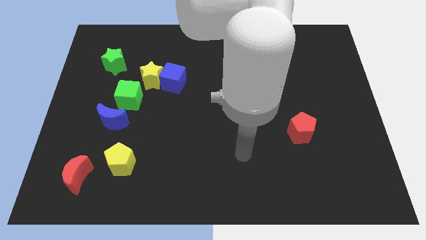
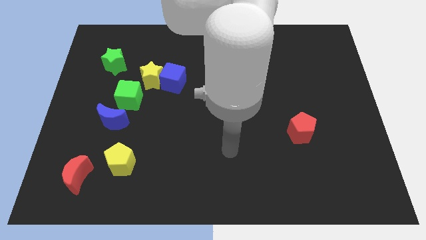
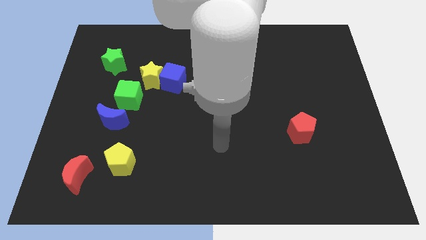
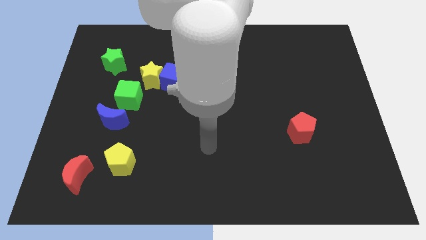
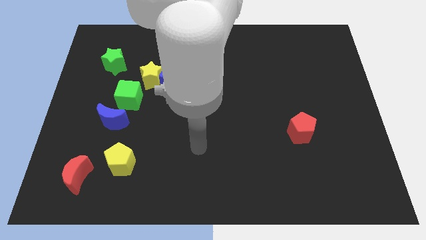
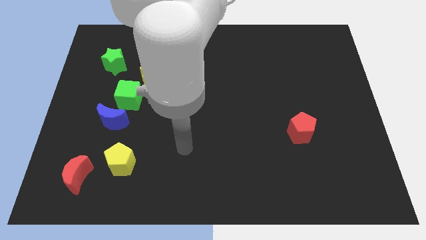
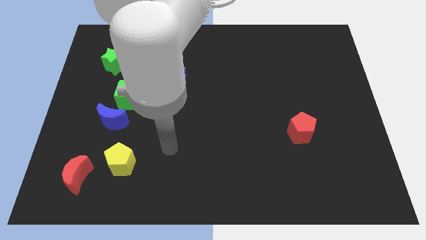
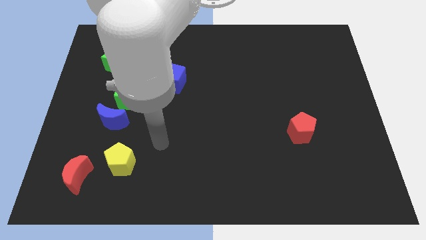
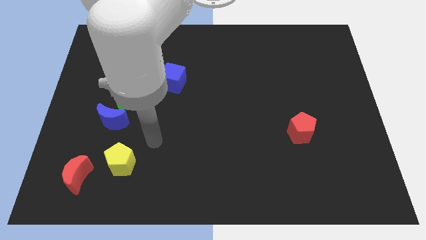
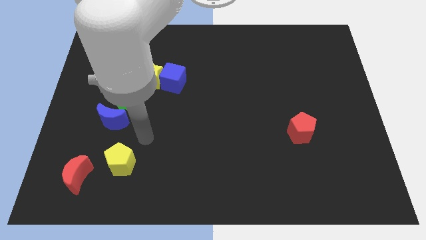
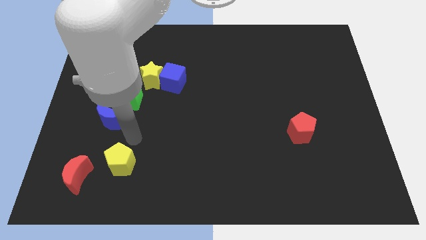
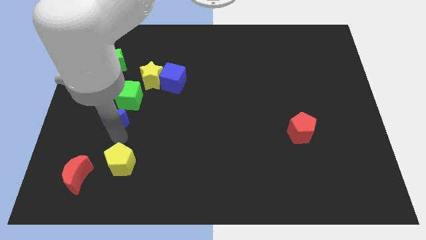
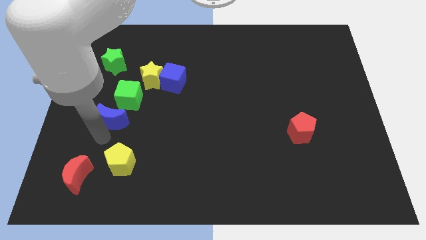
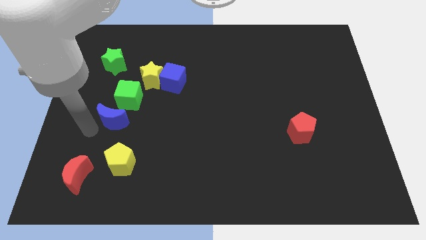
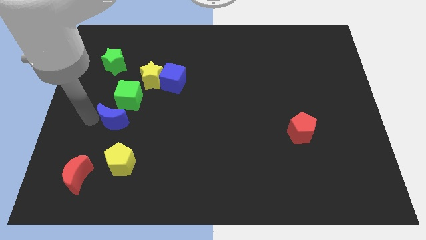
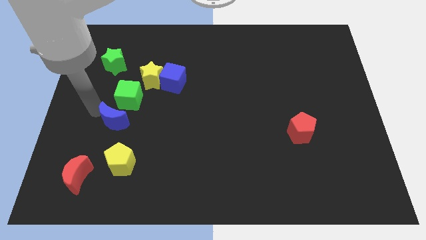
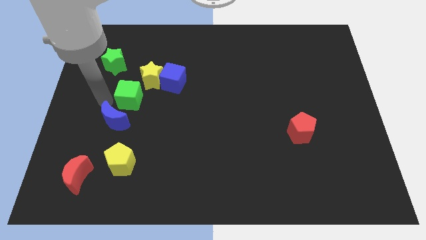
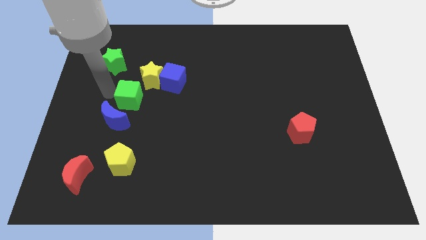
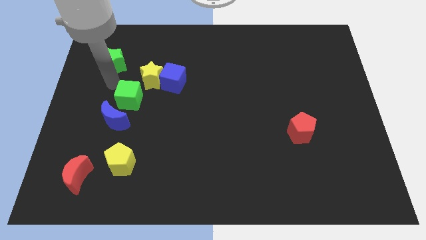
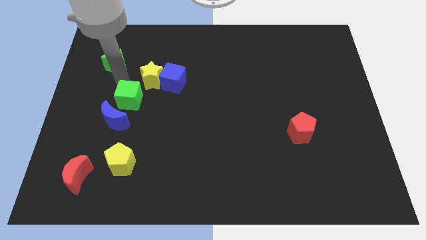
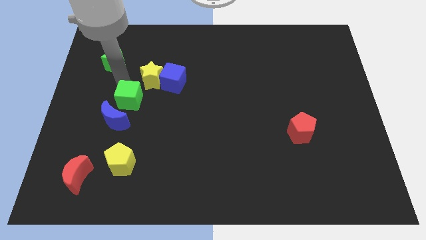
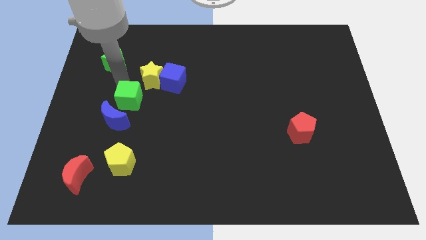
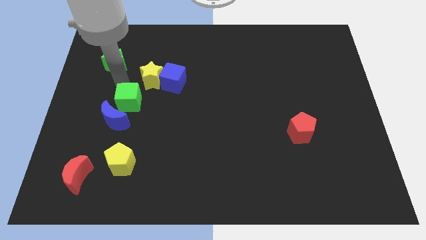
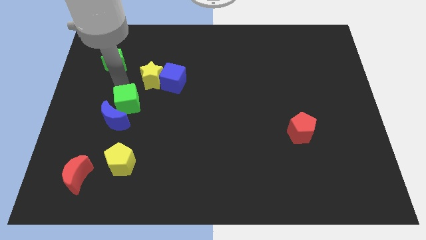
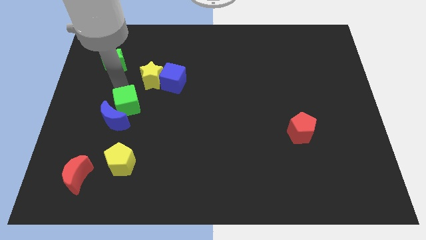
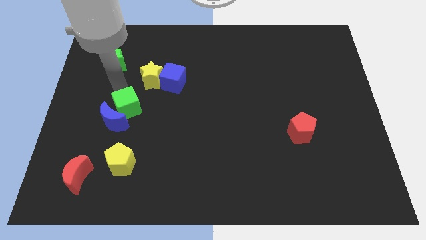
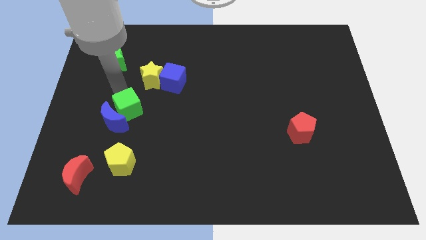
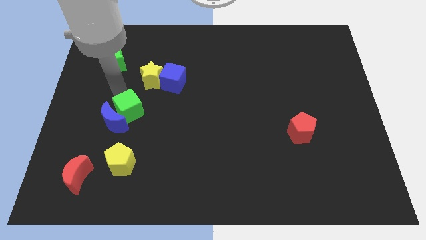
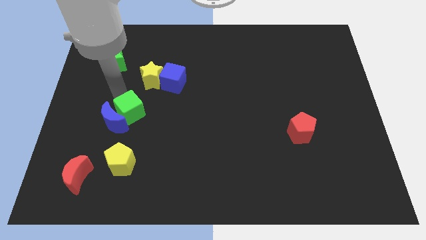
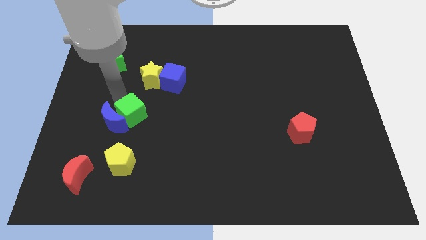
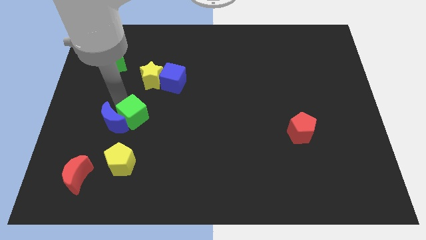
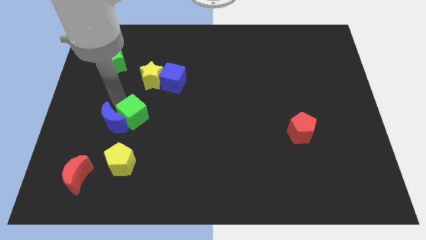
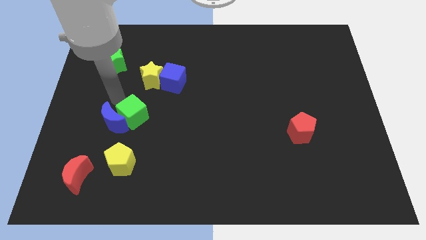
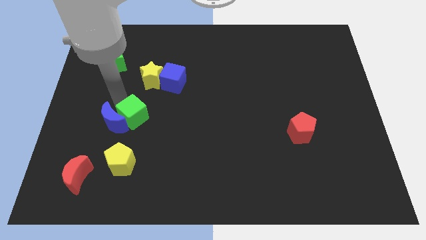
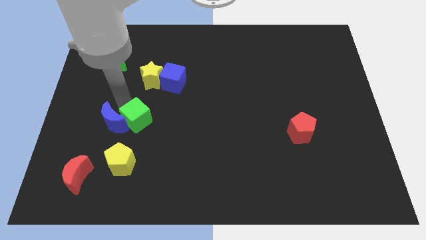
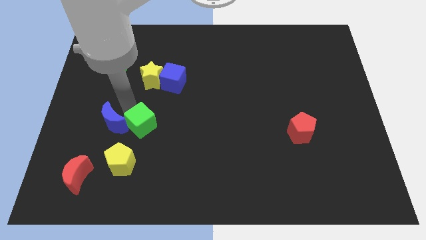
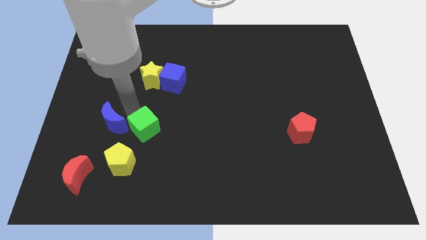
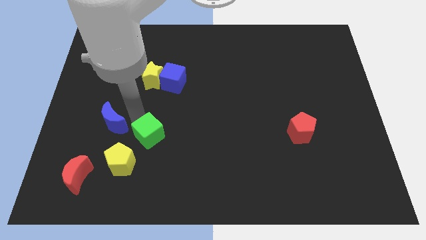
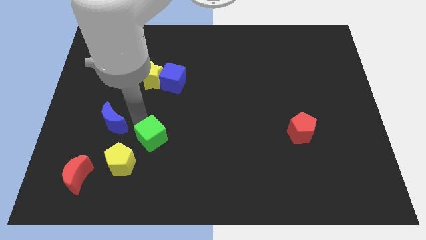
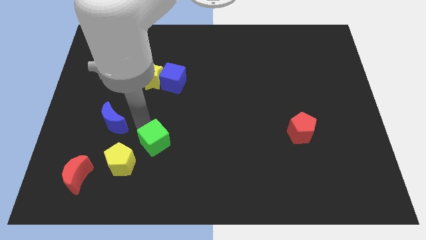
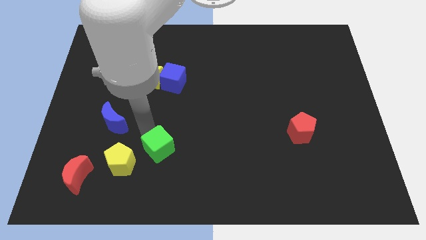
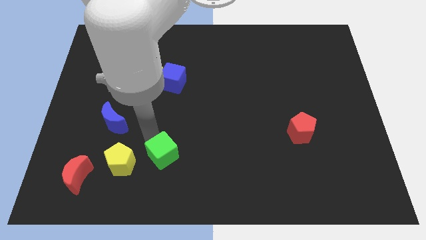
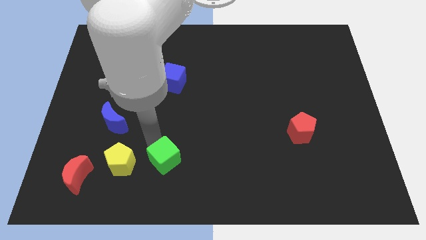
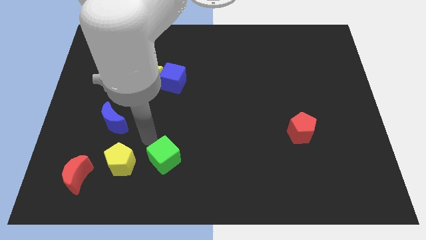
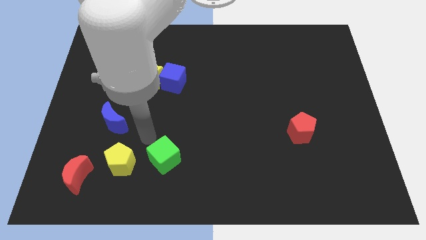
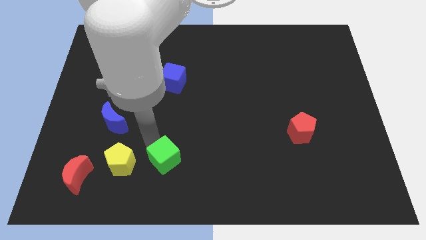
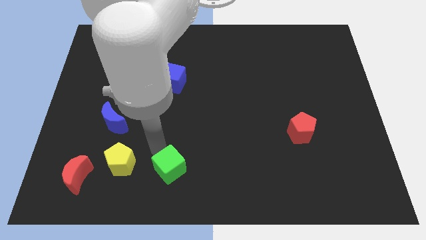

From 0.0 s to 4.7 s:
move the green cube to the bottom

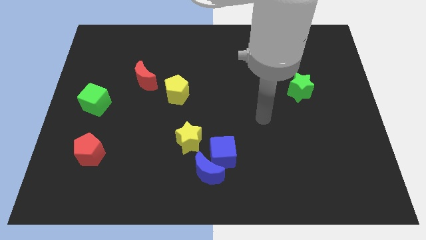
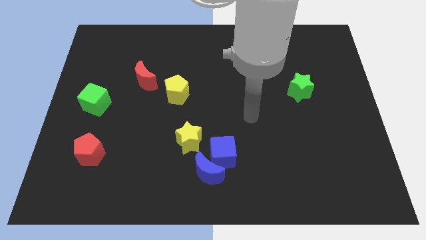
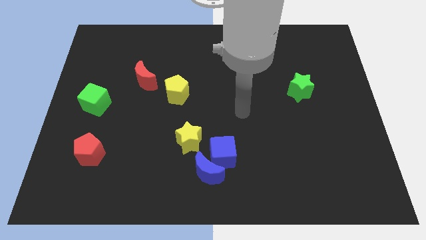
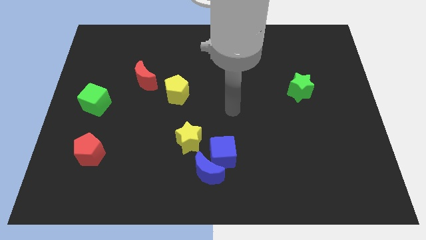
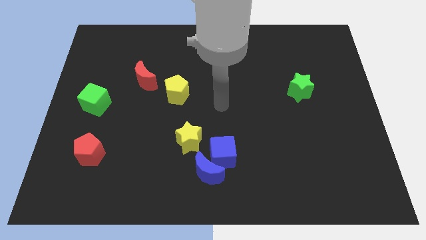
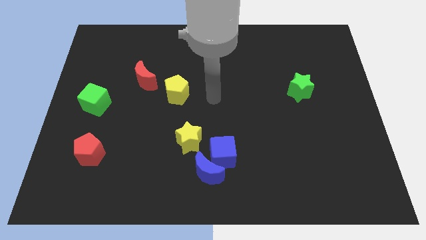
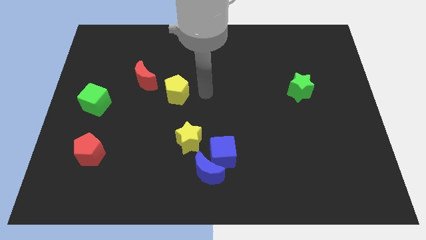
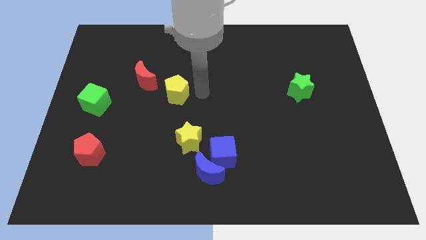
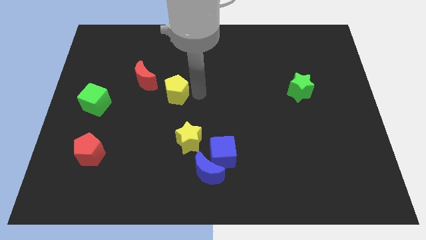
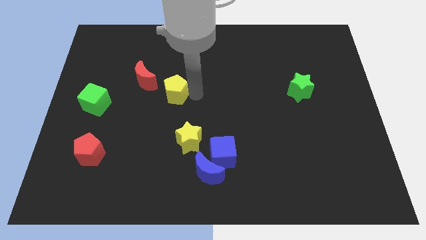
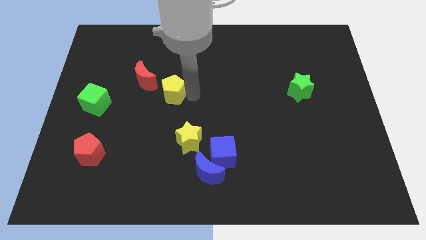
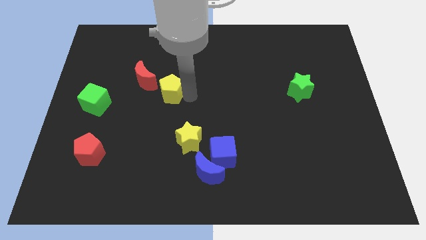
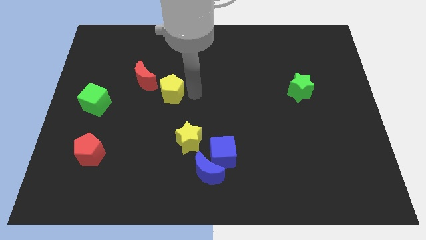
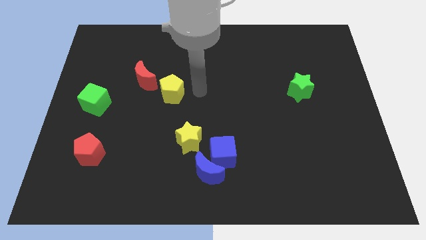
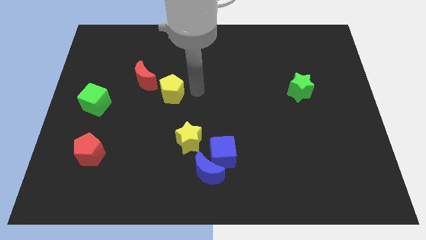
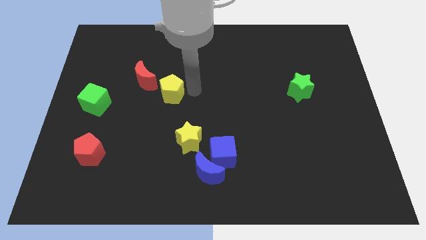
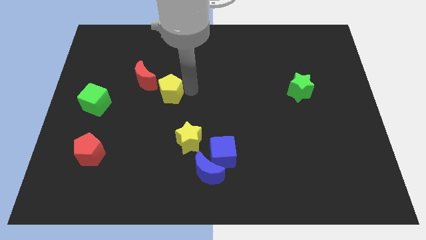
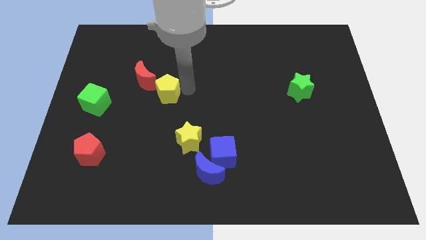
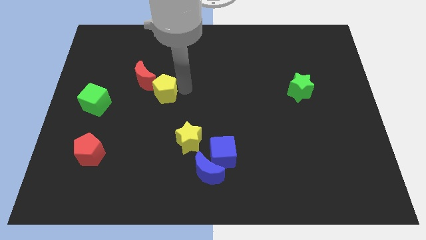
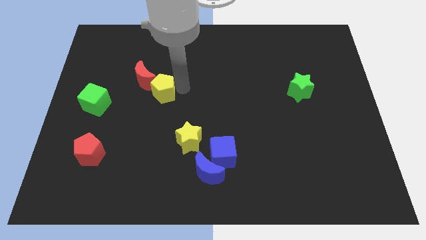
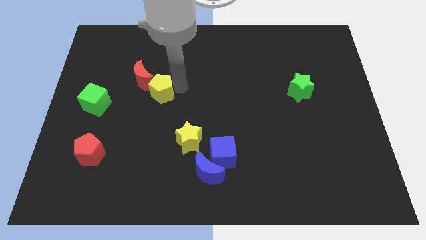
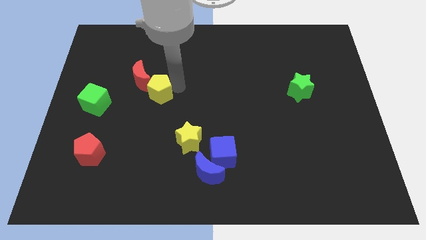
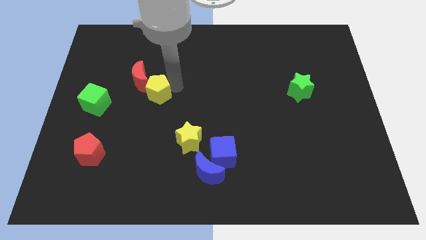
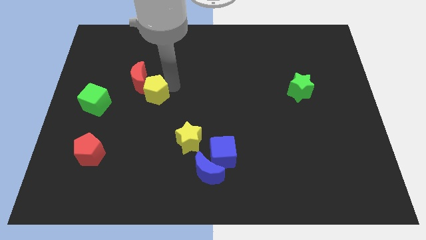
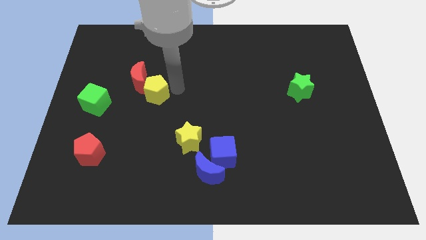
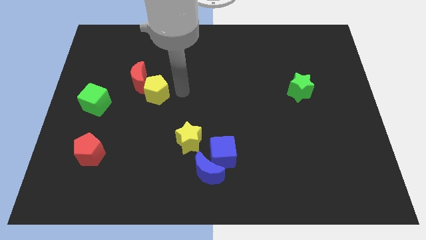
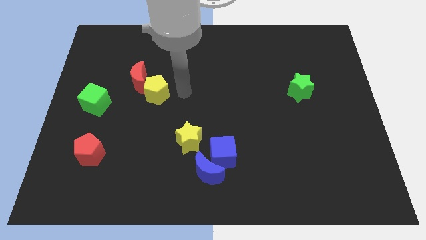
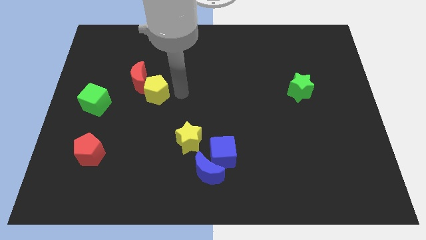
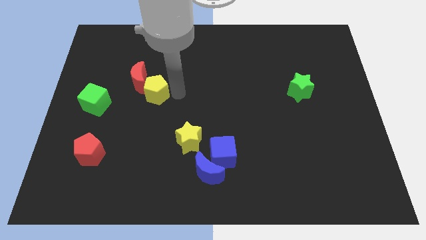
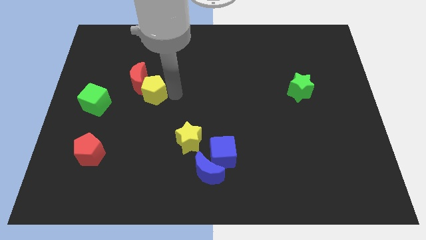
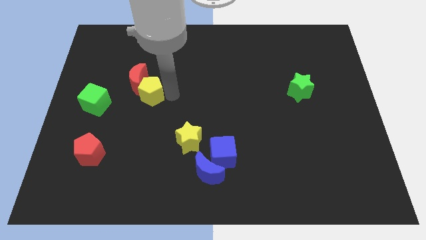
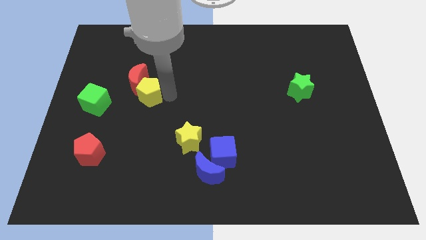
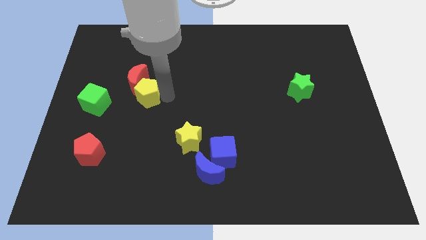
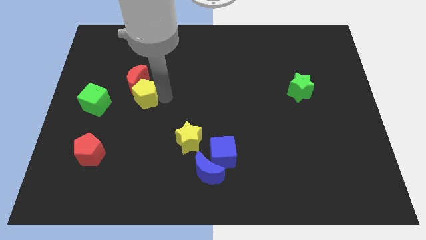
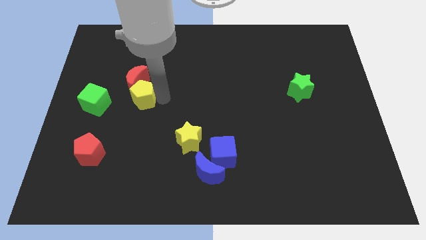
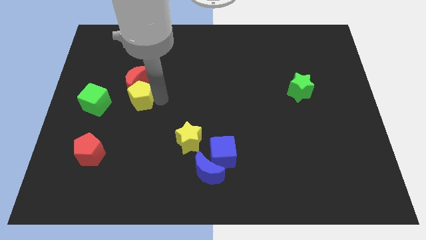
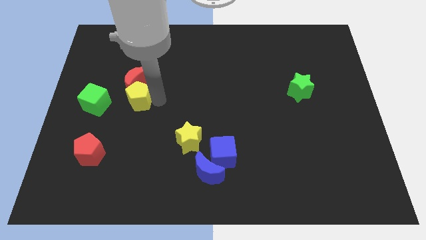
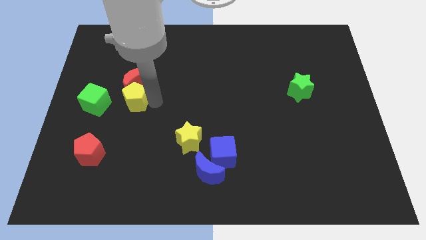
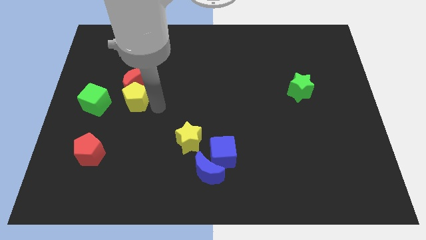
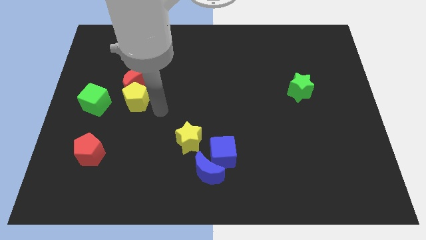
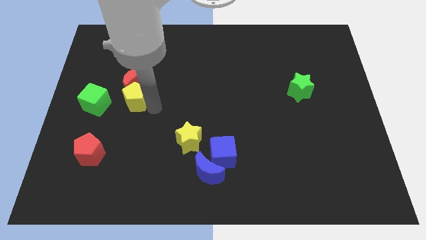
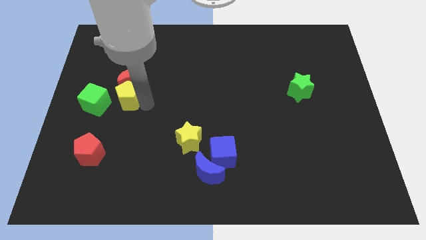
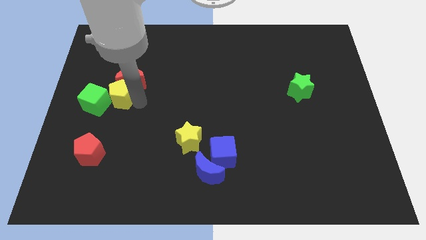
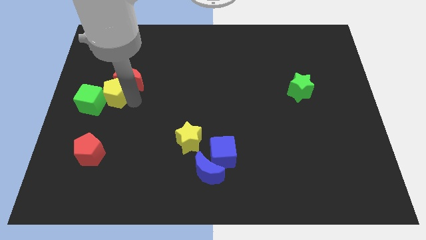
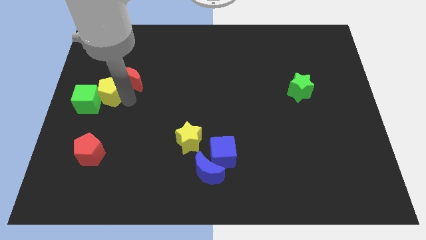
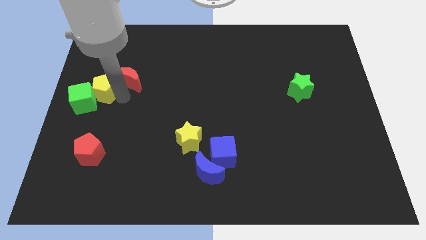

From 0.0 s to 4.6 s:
put the yellow pentagon to the left side
